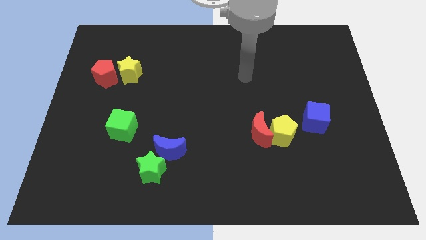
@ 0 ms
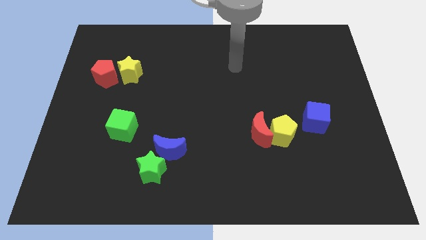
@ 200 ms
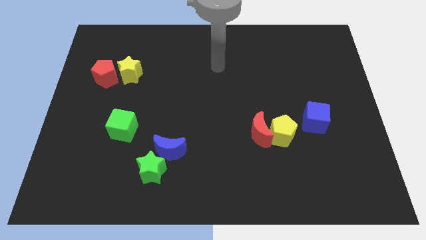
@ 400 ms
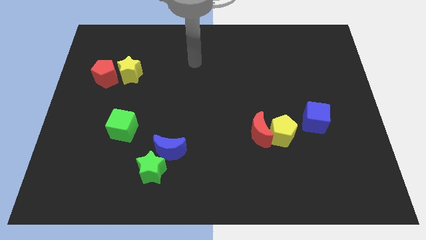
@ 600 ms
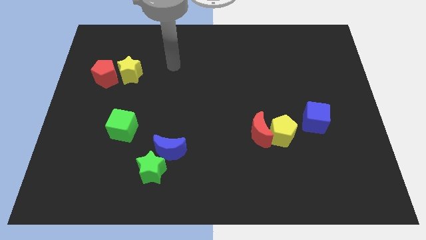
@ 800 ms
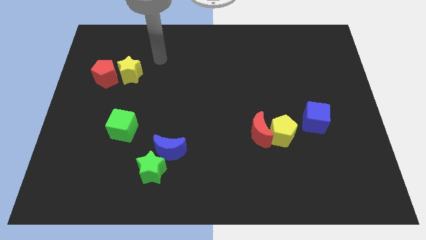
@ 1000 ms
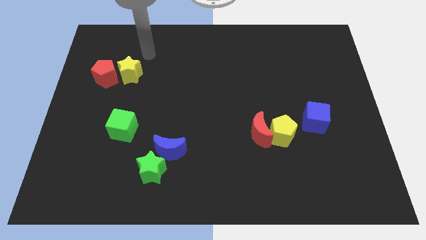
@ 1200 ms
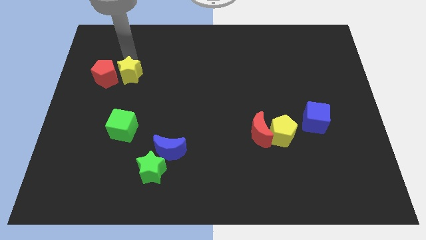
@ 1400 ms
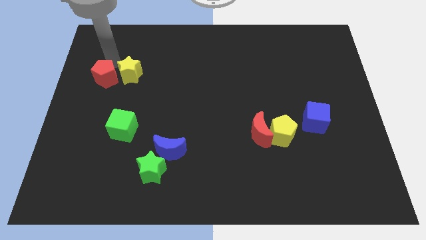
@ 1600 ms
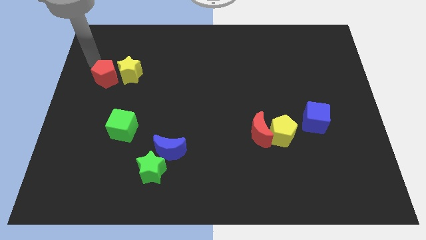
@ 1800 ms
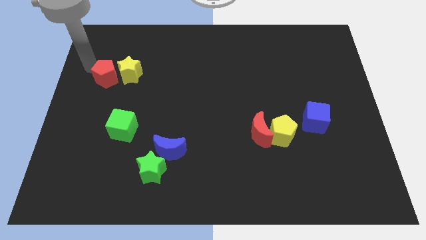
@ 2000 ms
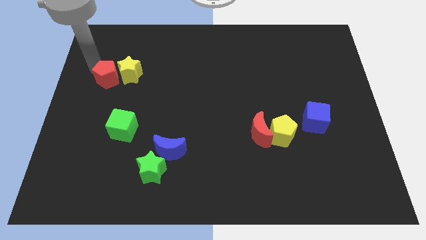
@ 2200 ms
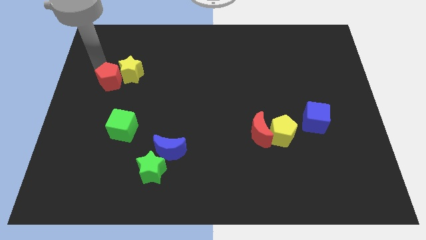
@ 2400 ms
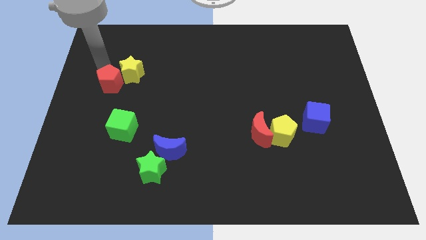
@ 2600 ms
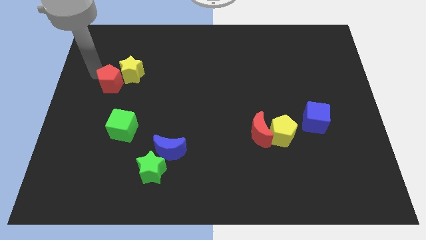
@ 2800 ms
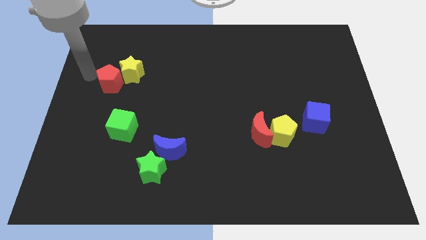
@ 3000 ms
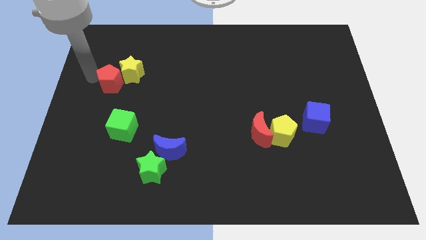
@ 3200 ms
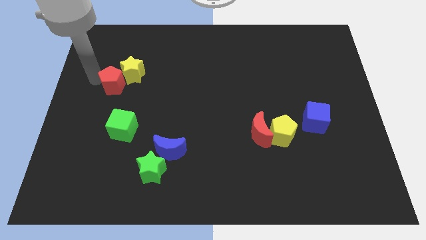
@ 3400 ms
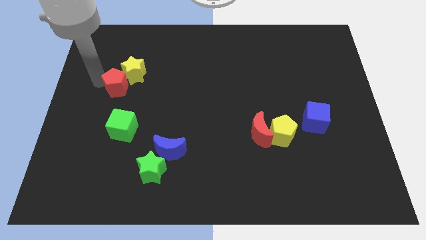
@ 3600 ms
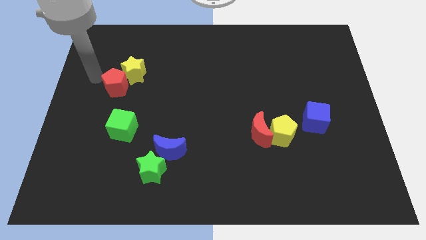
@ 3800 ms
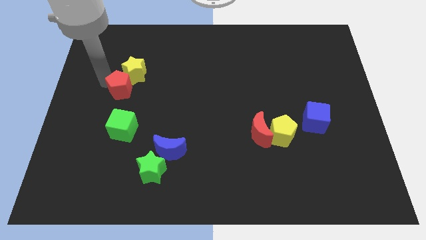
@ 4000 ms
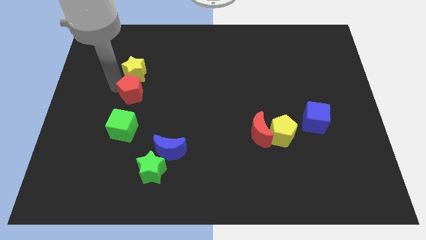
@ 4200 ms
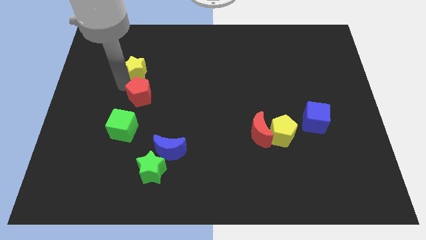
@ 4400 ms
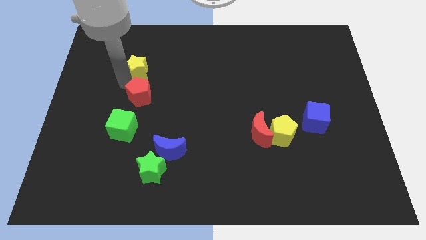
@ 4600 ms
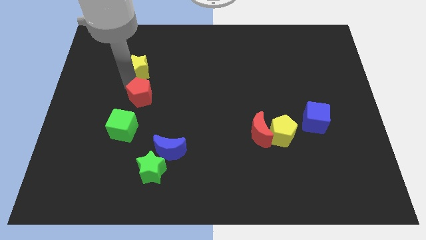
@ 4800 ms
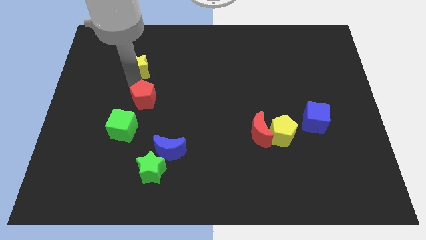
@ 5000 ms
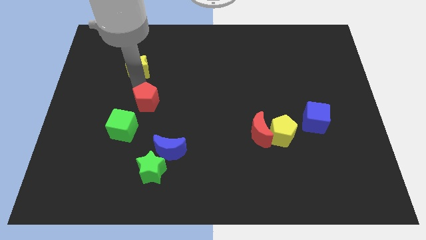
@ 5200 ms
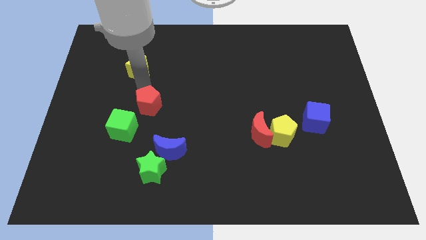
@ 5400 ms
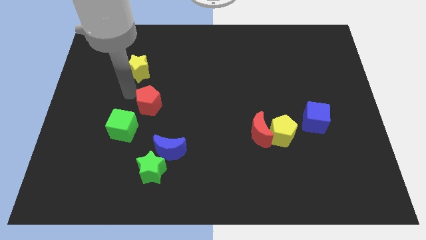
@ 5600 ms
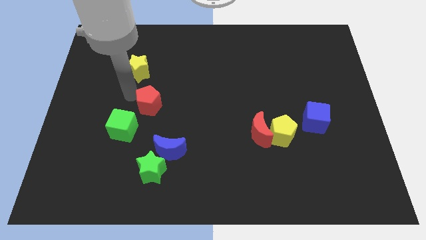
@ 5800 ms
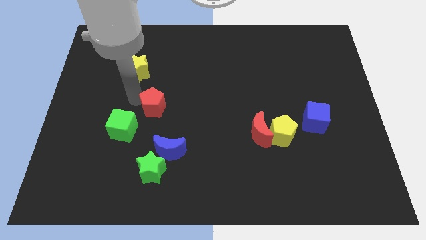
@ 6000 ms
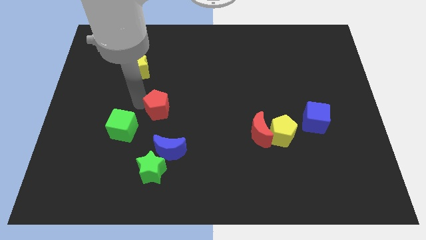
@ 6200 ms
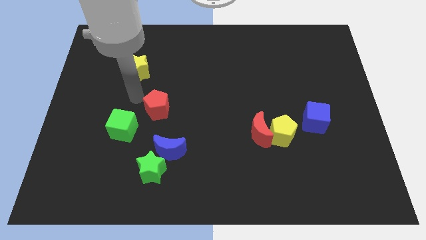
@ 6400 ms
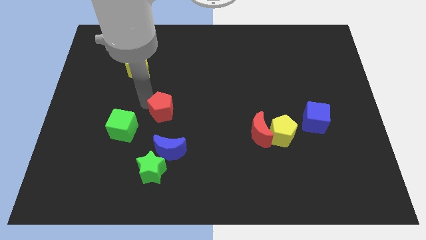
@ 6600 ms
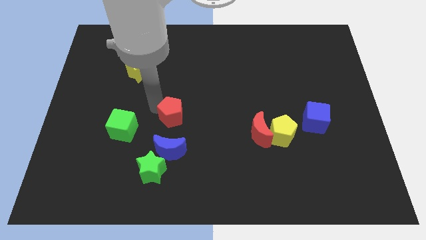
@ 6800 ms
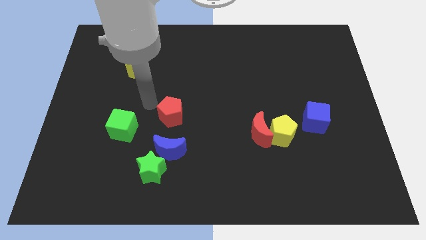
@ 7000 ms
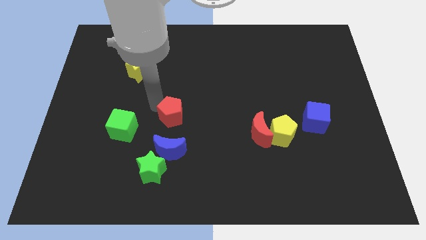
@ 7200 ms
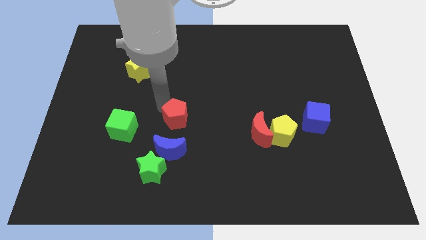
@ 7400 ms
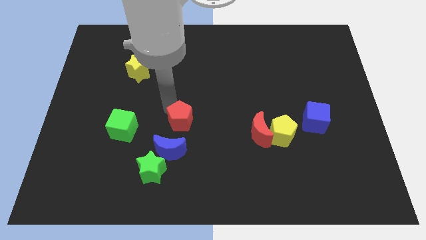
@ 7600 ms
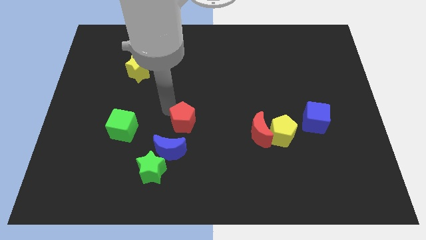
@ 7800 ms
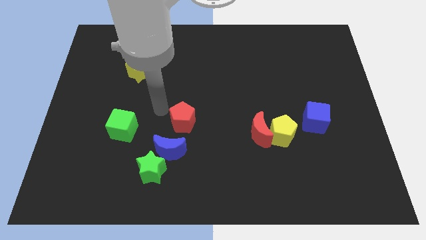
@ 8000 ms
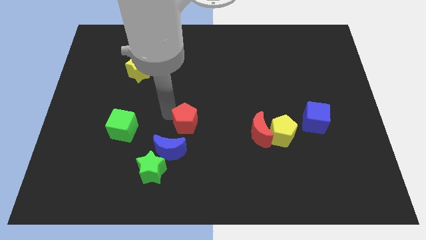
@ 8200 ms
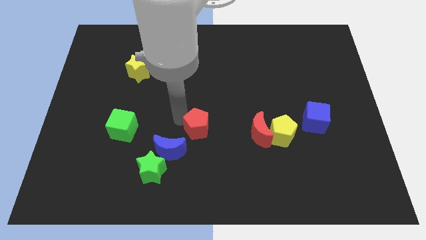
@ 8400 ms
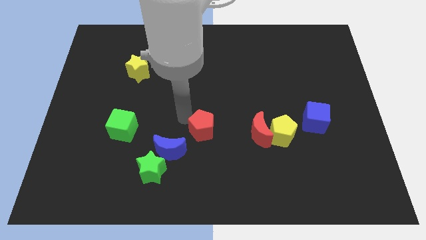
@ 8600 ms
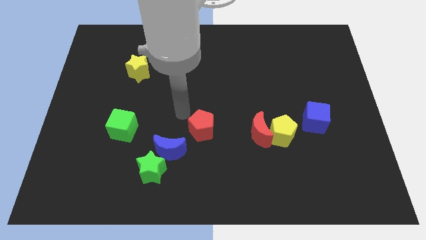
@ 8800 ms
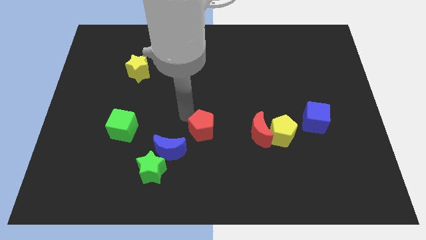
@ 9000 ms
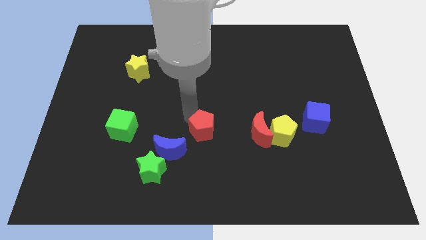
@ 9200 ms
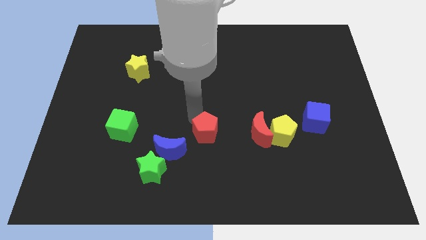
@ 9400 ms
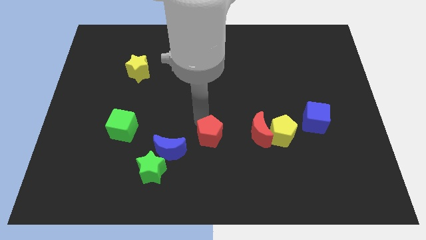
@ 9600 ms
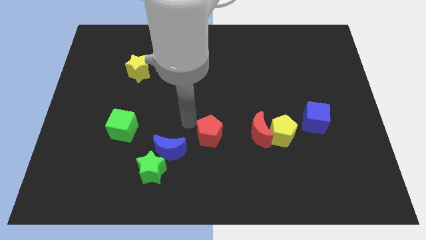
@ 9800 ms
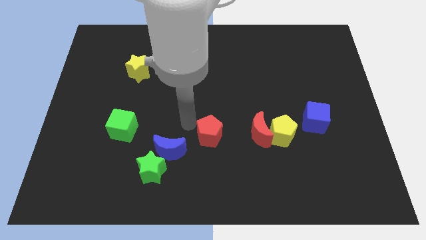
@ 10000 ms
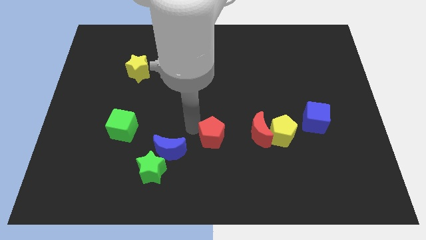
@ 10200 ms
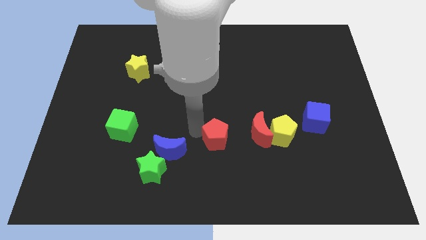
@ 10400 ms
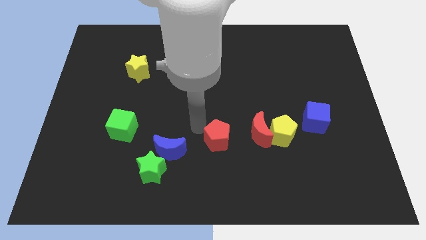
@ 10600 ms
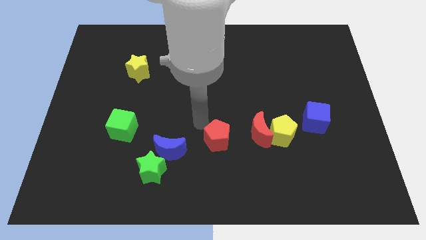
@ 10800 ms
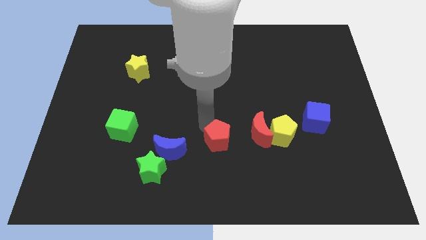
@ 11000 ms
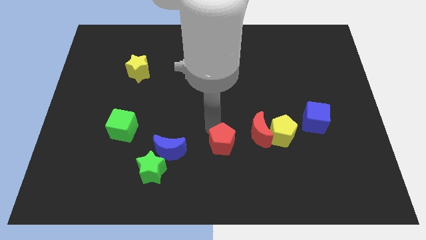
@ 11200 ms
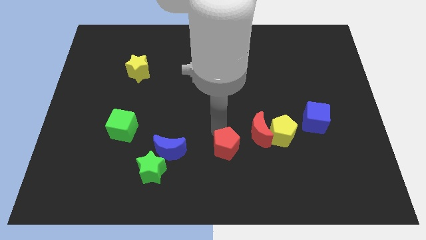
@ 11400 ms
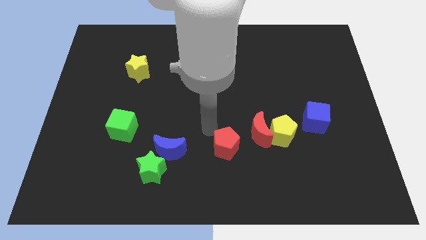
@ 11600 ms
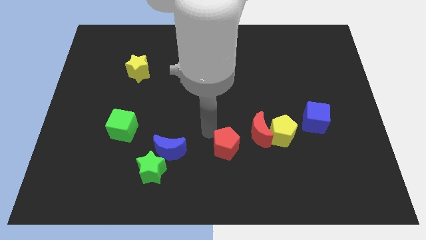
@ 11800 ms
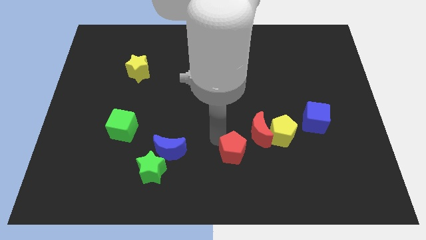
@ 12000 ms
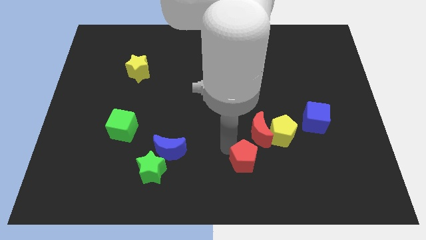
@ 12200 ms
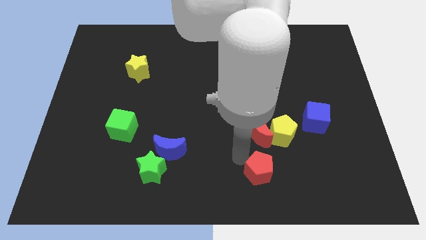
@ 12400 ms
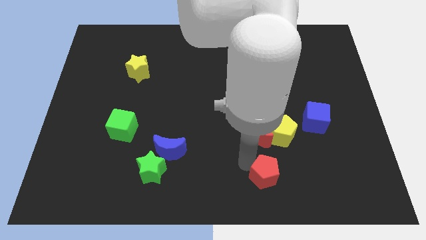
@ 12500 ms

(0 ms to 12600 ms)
move the red pentagon below the yellow pentagon

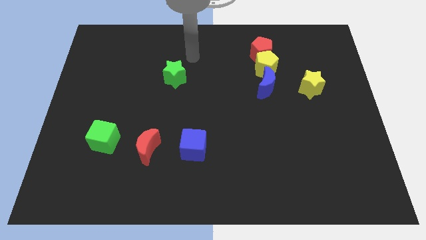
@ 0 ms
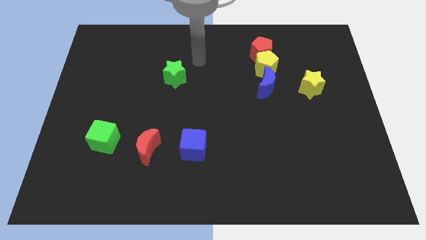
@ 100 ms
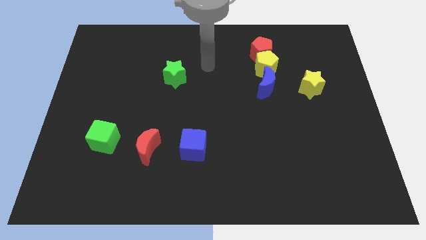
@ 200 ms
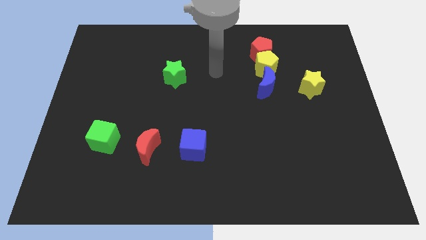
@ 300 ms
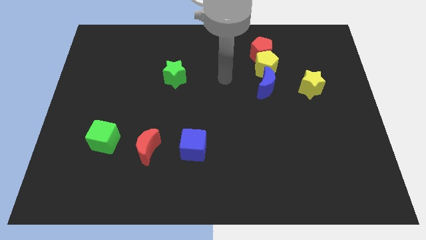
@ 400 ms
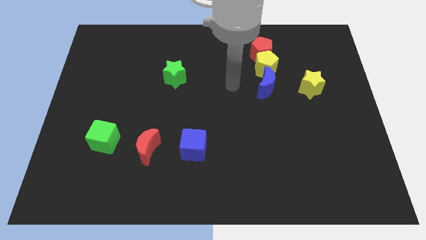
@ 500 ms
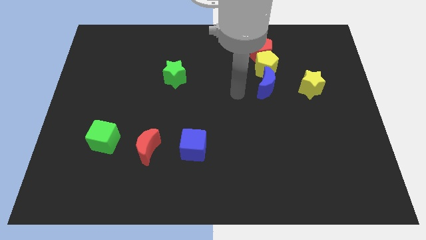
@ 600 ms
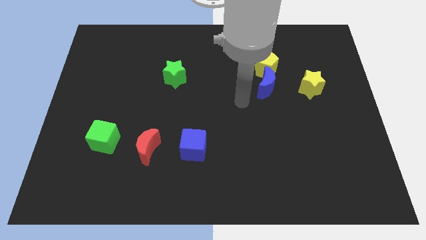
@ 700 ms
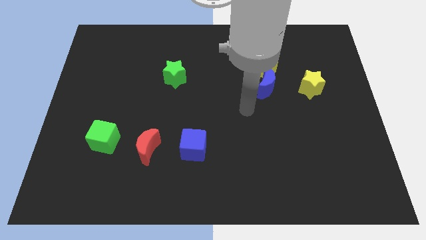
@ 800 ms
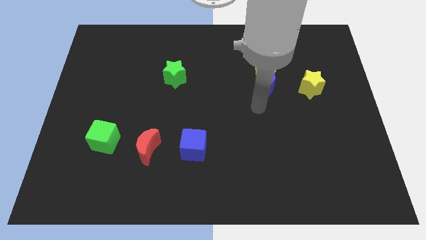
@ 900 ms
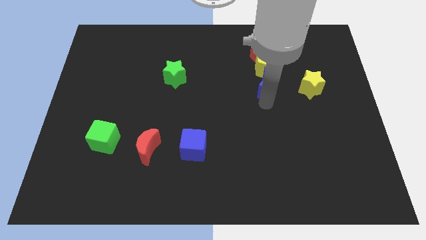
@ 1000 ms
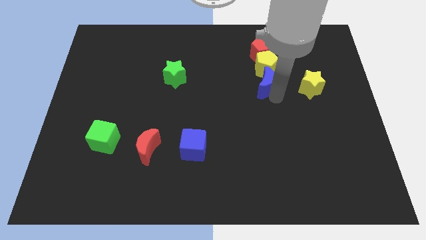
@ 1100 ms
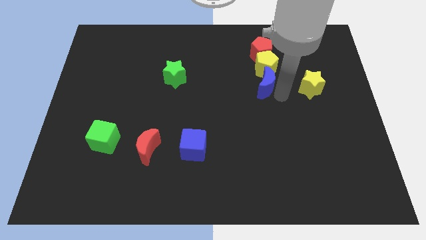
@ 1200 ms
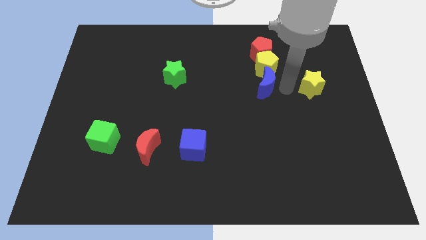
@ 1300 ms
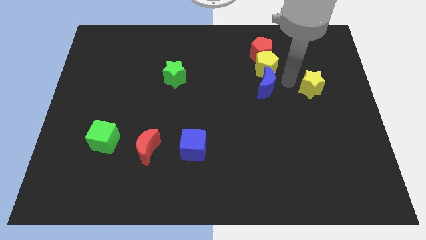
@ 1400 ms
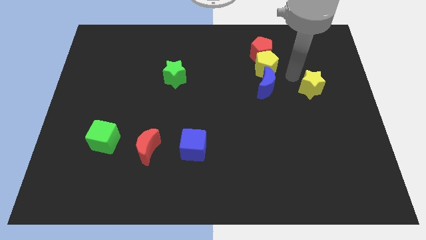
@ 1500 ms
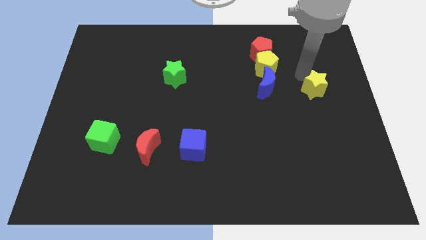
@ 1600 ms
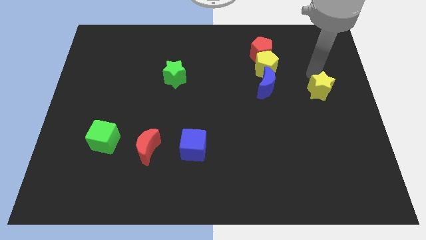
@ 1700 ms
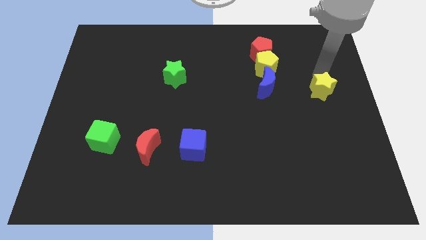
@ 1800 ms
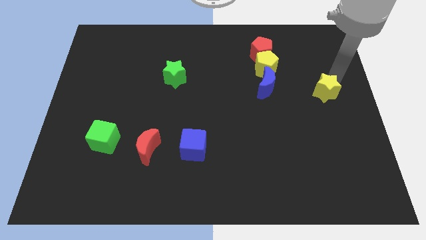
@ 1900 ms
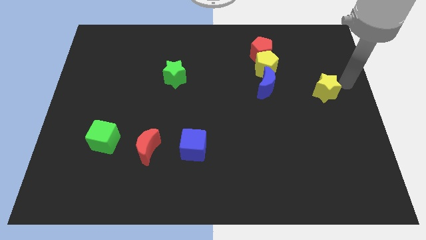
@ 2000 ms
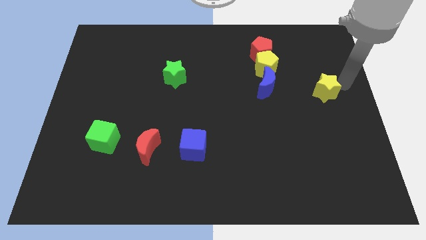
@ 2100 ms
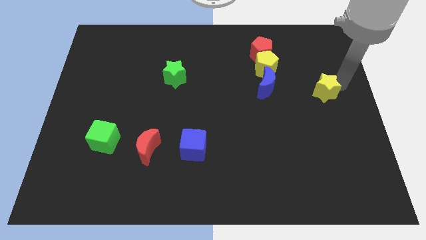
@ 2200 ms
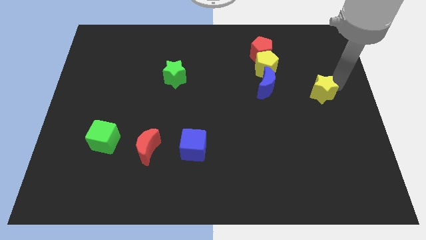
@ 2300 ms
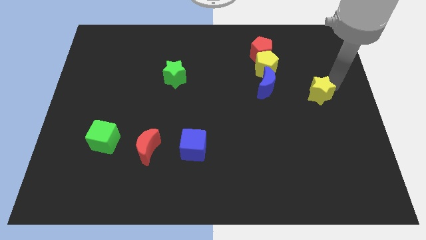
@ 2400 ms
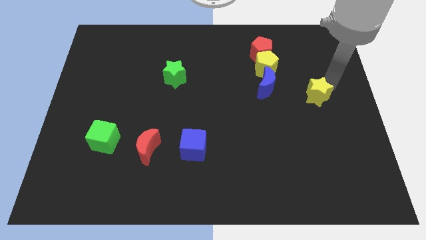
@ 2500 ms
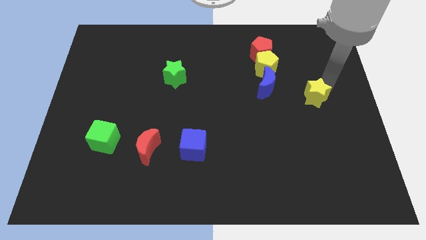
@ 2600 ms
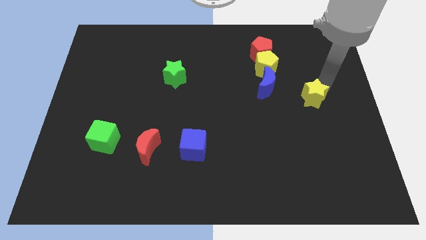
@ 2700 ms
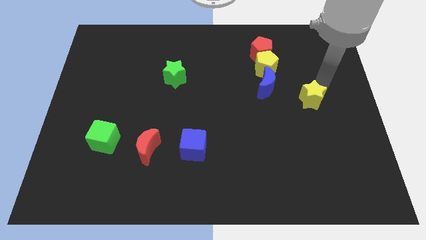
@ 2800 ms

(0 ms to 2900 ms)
slide the yellow star diagonally down and to the right of the blue moon
